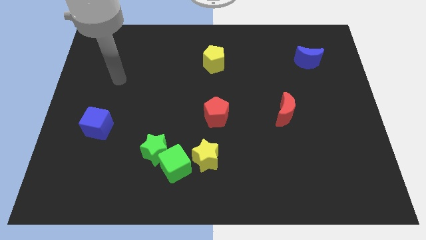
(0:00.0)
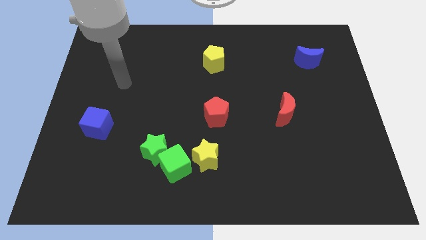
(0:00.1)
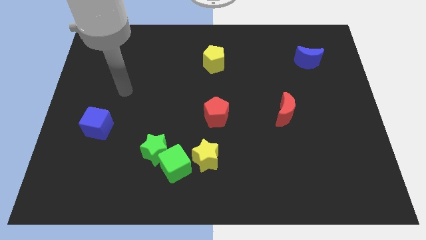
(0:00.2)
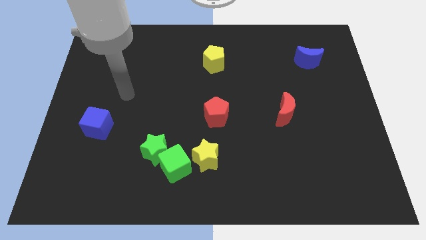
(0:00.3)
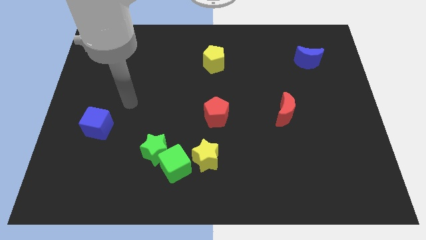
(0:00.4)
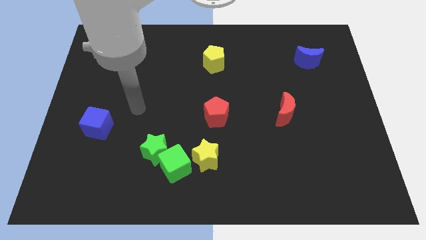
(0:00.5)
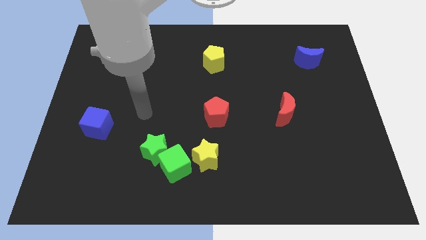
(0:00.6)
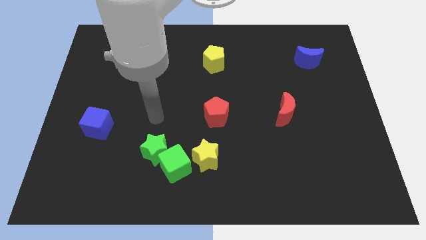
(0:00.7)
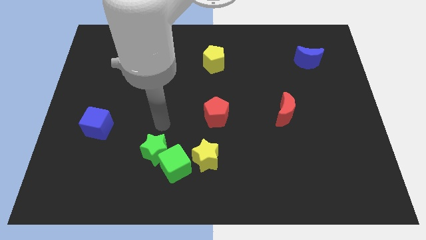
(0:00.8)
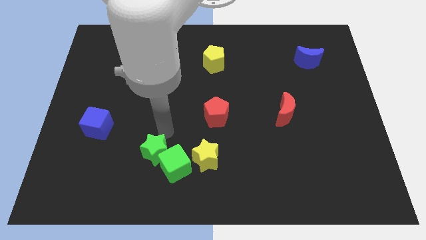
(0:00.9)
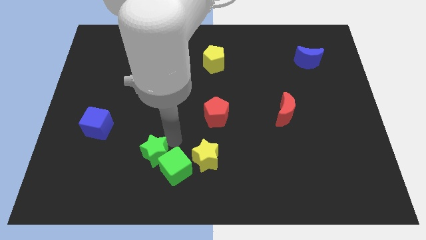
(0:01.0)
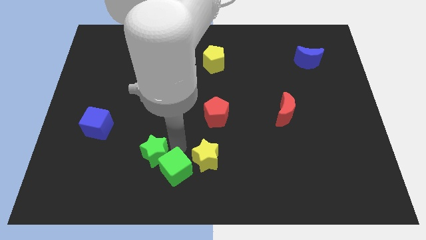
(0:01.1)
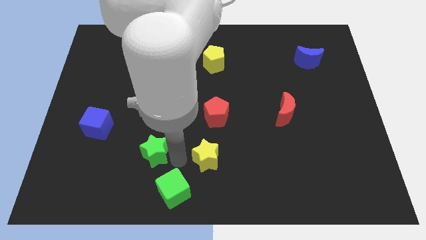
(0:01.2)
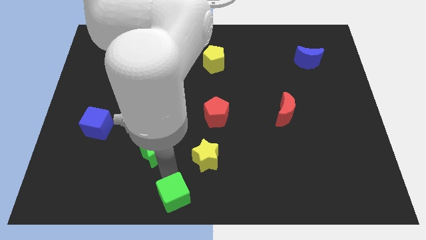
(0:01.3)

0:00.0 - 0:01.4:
separate the green star from the green cube

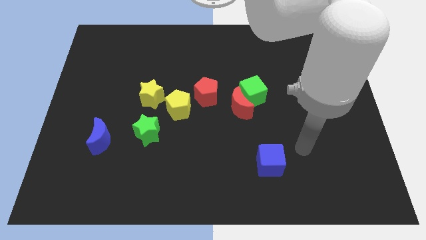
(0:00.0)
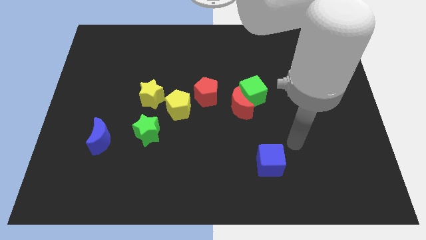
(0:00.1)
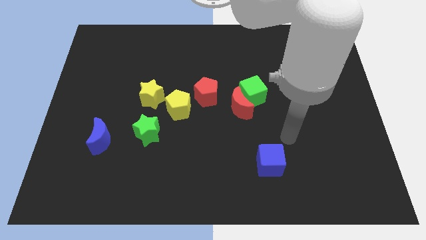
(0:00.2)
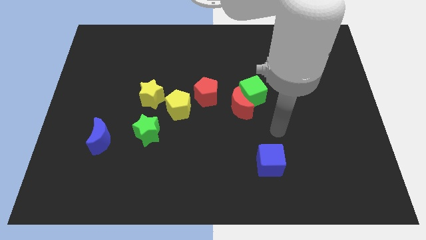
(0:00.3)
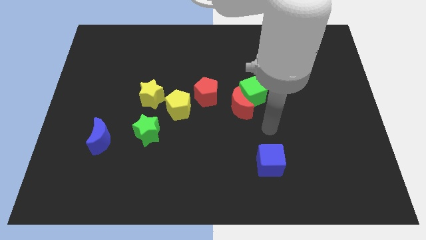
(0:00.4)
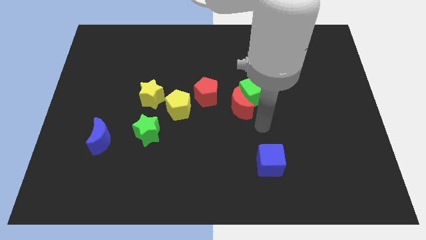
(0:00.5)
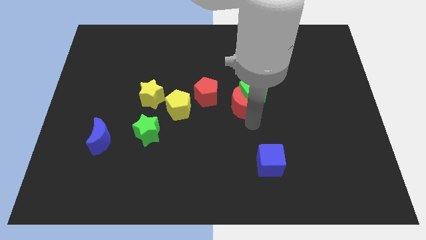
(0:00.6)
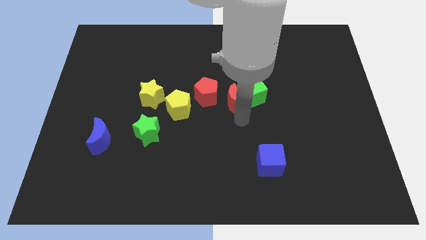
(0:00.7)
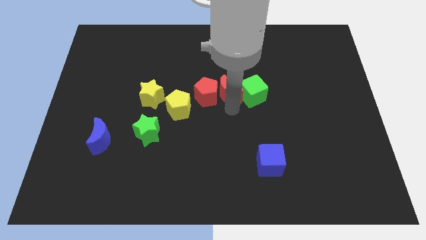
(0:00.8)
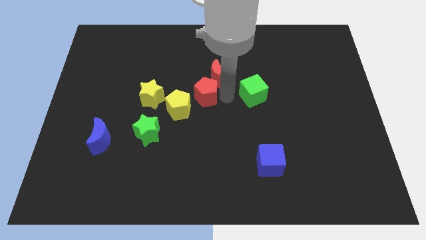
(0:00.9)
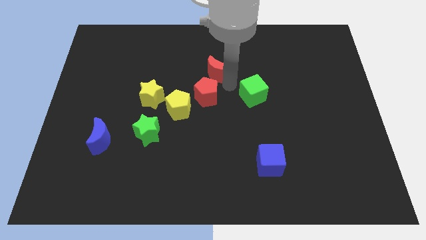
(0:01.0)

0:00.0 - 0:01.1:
separate the green cube from the red moon

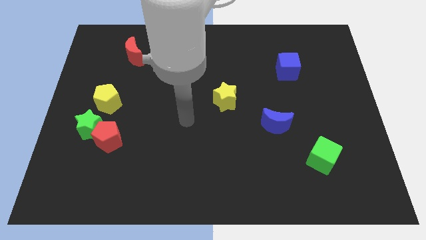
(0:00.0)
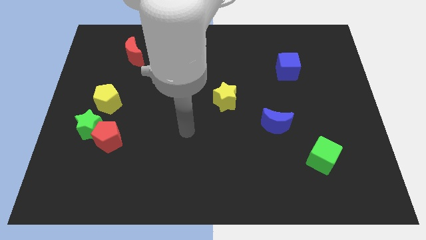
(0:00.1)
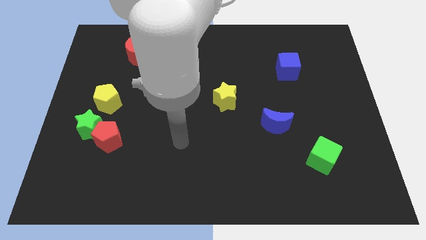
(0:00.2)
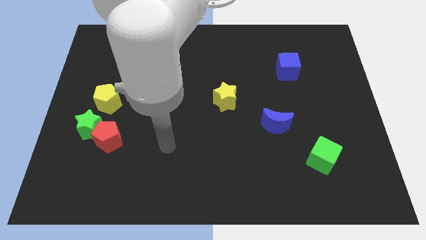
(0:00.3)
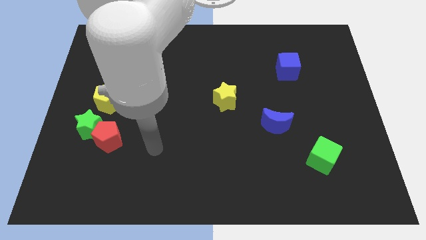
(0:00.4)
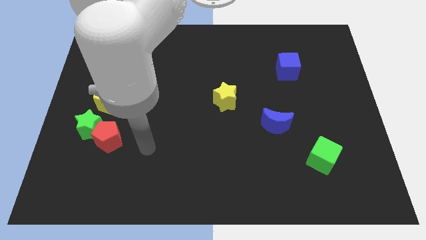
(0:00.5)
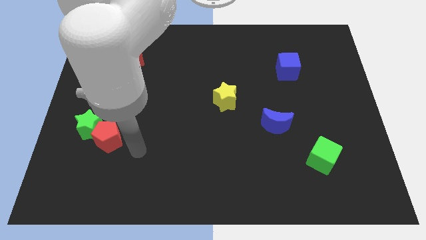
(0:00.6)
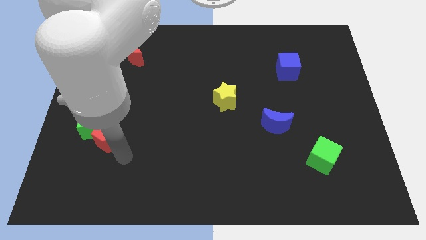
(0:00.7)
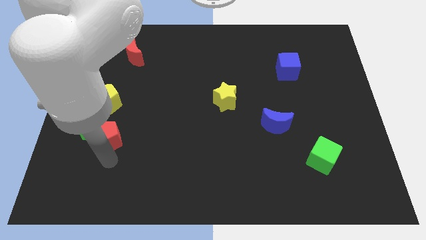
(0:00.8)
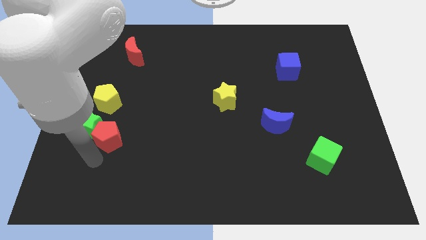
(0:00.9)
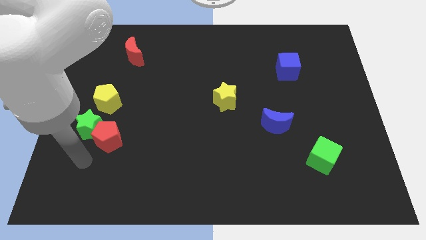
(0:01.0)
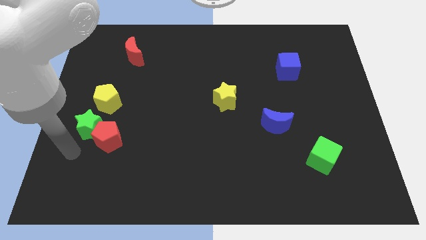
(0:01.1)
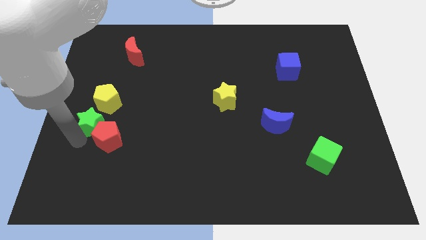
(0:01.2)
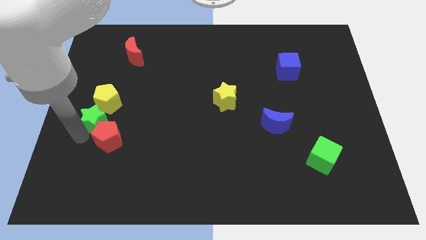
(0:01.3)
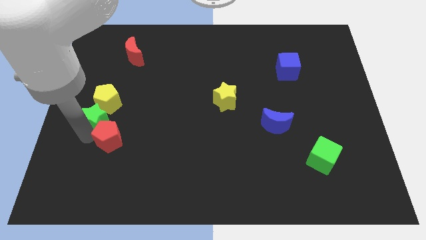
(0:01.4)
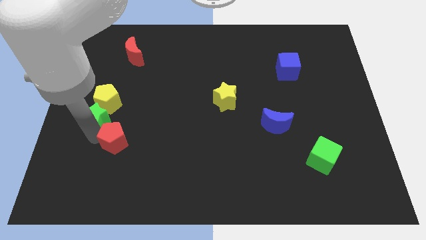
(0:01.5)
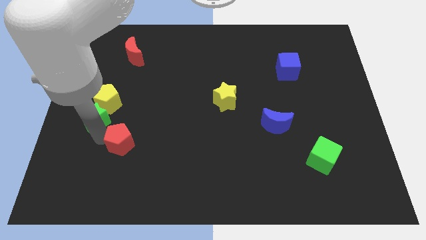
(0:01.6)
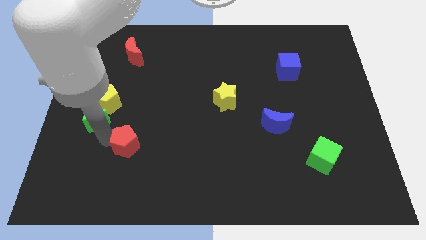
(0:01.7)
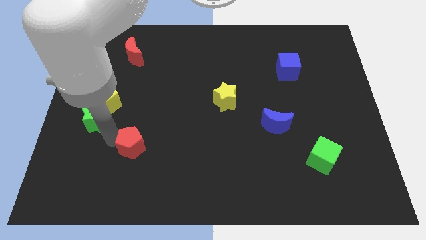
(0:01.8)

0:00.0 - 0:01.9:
separate the red pentagon from the green star

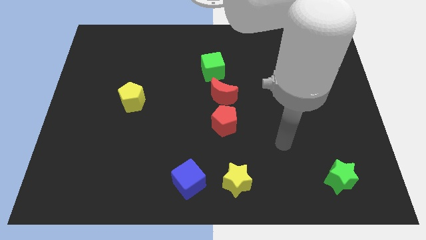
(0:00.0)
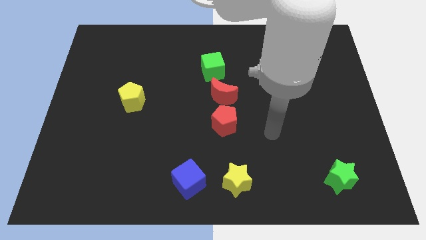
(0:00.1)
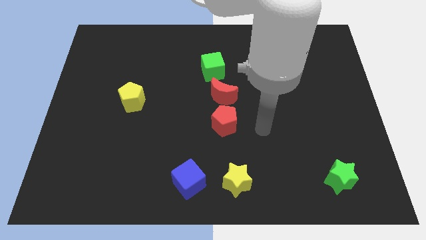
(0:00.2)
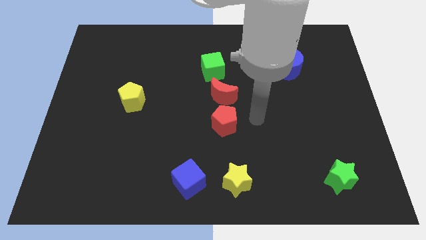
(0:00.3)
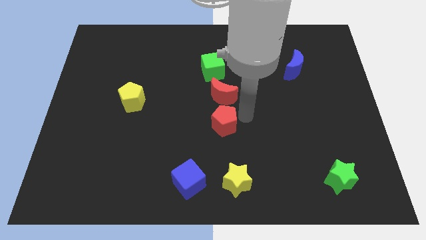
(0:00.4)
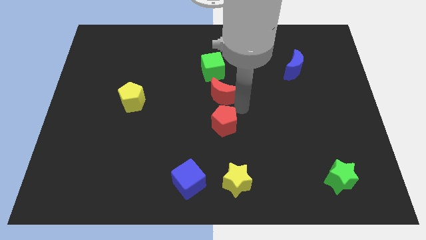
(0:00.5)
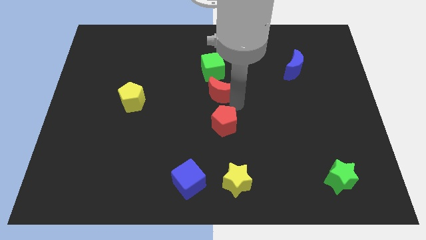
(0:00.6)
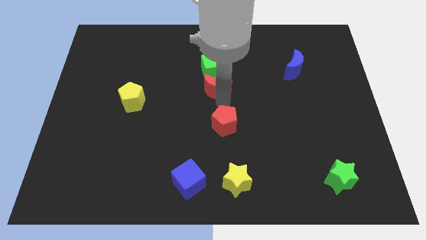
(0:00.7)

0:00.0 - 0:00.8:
move the red pentagon away from the red moon

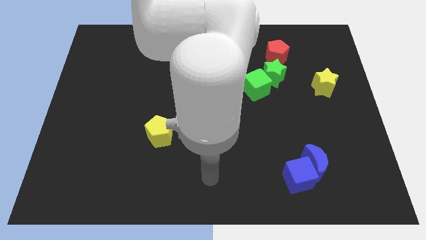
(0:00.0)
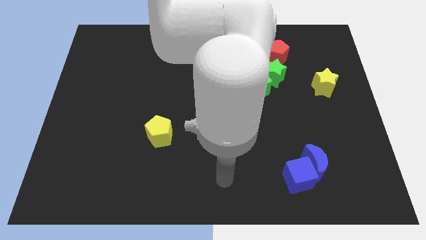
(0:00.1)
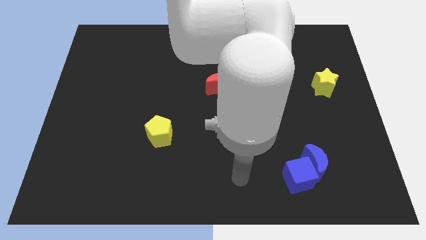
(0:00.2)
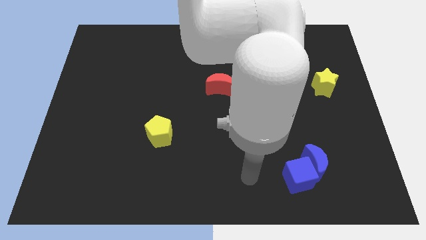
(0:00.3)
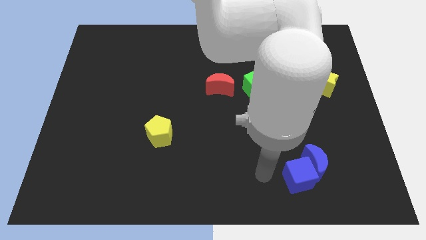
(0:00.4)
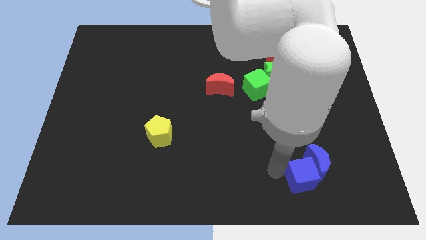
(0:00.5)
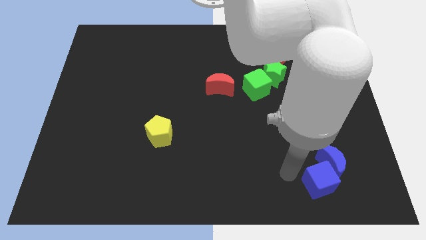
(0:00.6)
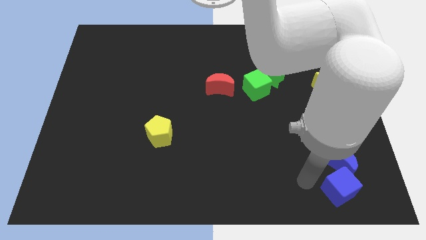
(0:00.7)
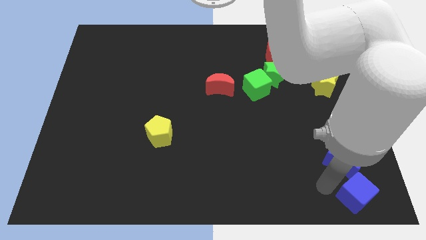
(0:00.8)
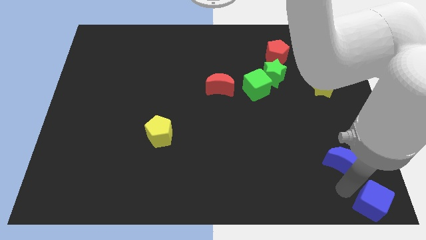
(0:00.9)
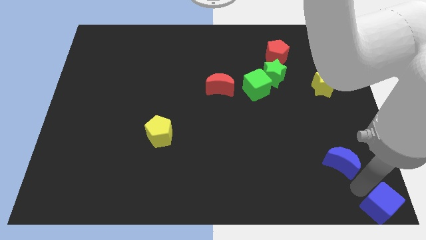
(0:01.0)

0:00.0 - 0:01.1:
separate the blue moon from the blue cube

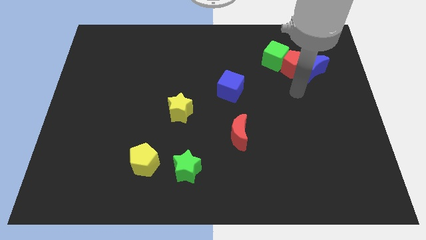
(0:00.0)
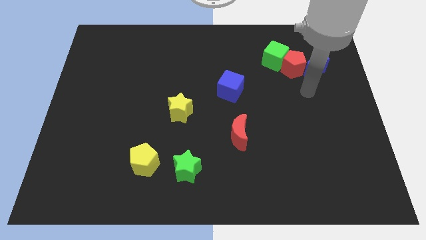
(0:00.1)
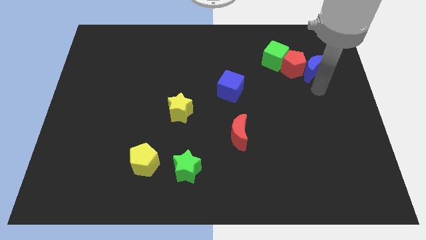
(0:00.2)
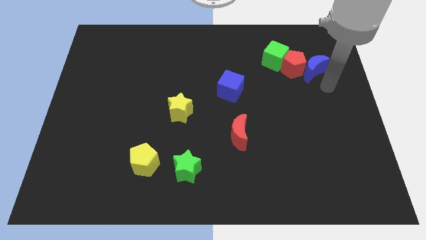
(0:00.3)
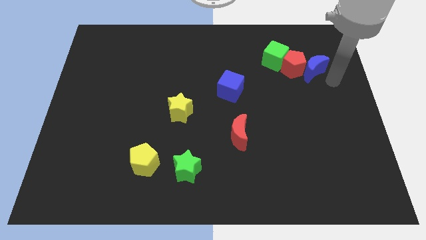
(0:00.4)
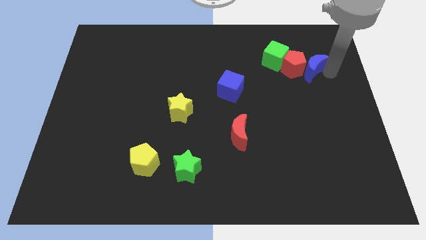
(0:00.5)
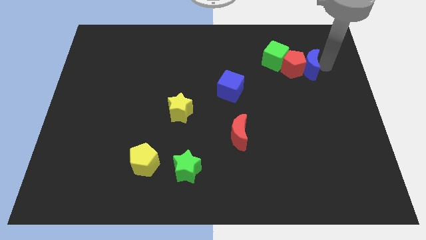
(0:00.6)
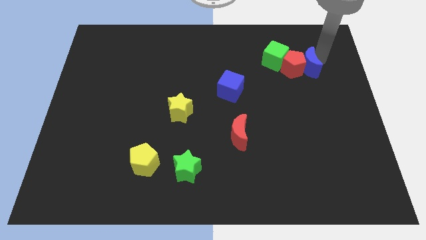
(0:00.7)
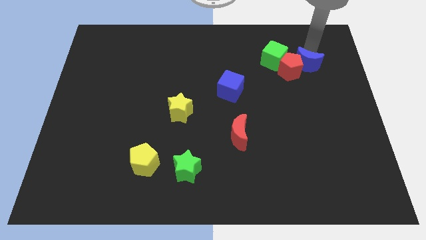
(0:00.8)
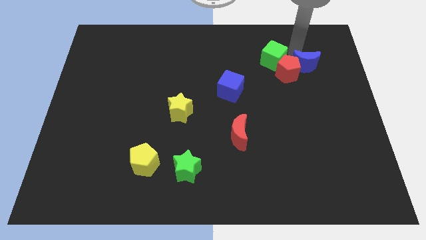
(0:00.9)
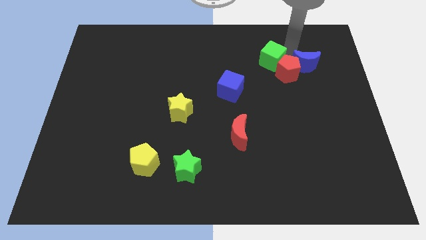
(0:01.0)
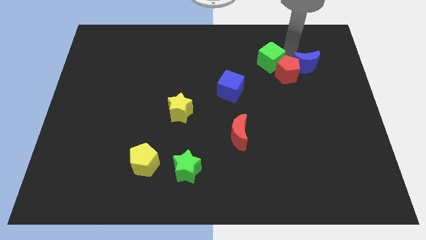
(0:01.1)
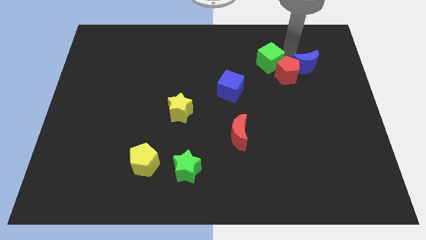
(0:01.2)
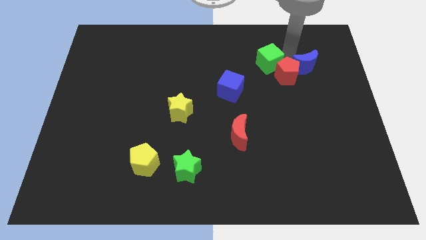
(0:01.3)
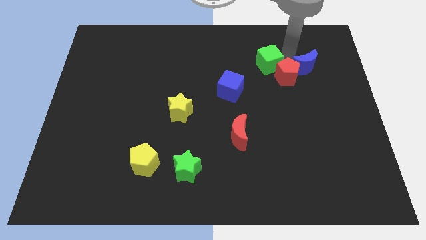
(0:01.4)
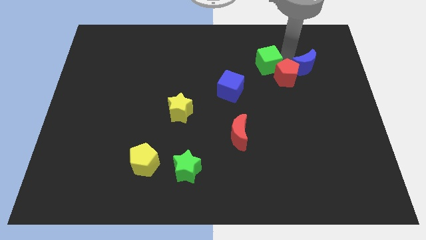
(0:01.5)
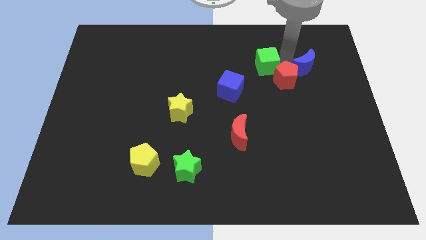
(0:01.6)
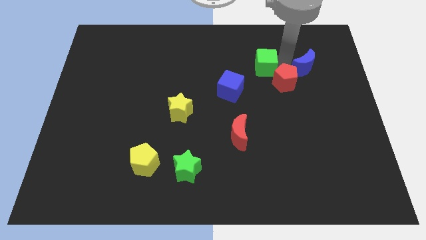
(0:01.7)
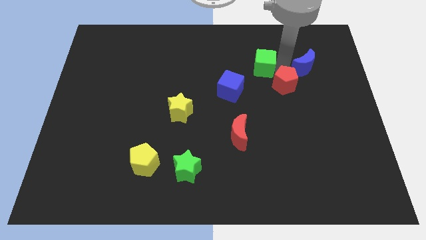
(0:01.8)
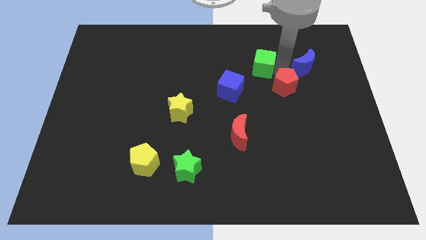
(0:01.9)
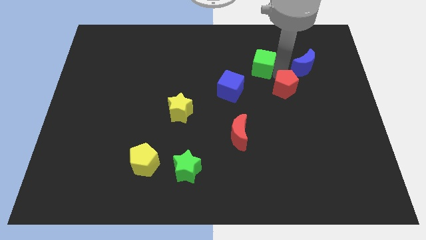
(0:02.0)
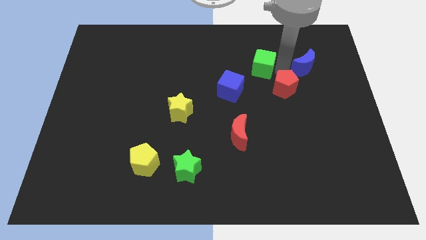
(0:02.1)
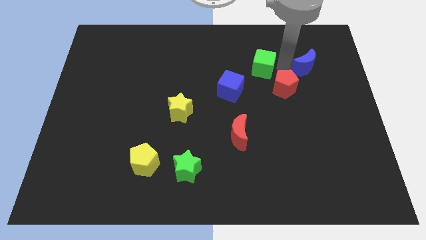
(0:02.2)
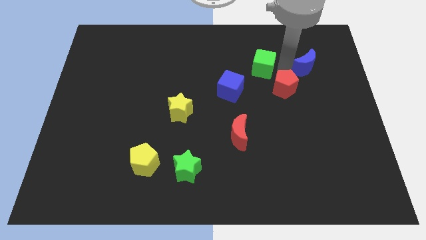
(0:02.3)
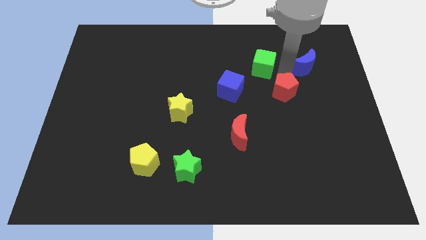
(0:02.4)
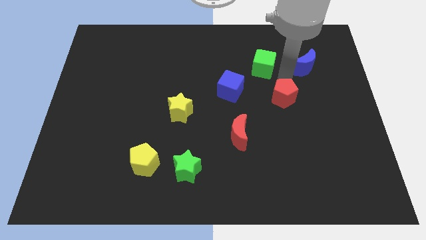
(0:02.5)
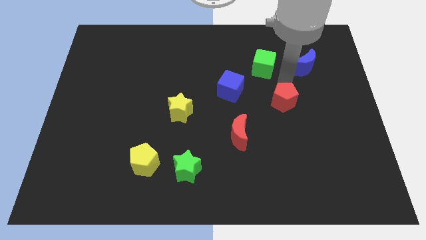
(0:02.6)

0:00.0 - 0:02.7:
separate the red pentagon from the blue moon and green cube

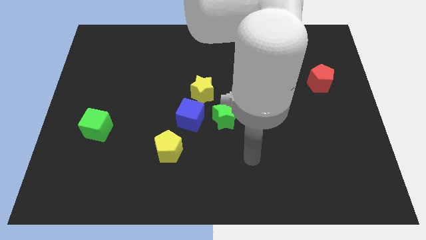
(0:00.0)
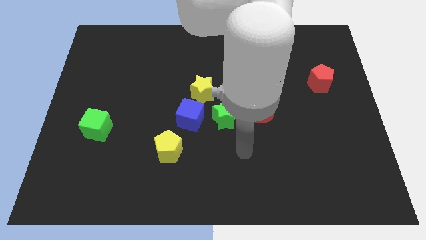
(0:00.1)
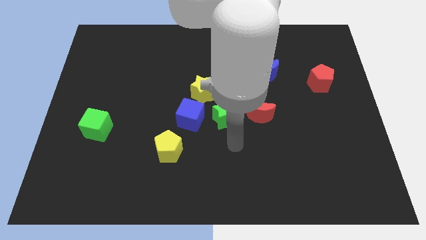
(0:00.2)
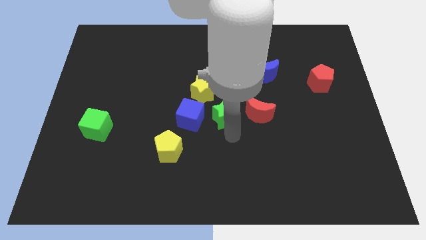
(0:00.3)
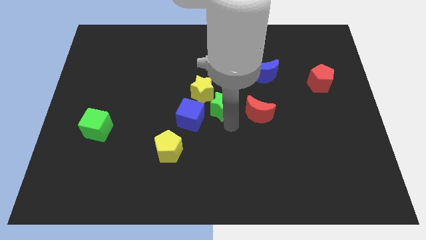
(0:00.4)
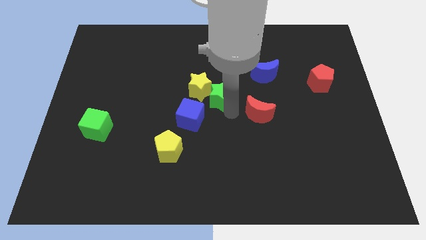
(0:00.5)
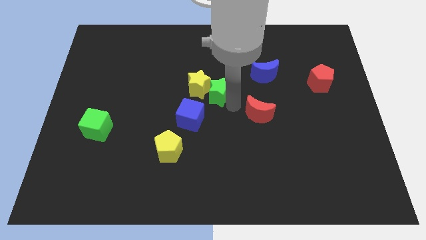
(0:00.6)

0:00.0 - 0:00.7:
move the red moon away from the green star
